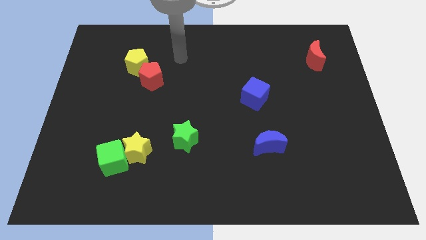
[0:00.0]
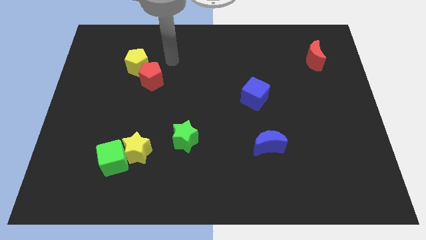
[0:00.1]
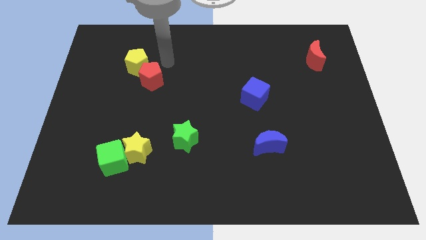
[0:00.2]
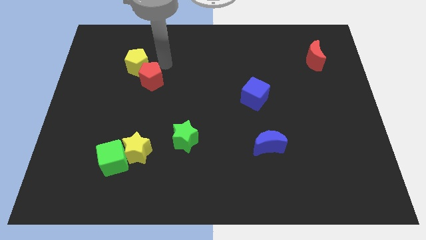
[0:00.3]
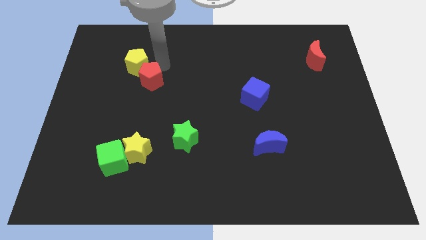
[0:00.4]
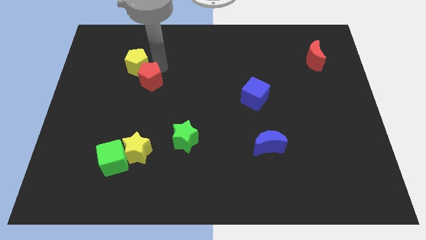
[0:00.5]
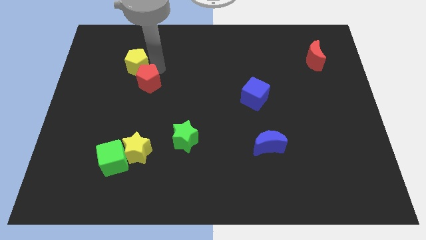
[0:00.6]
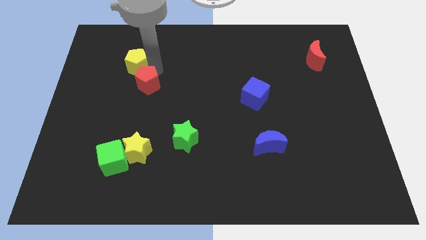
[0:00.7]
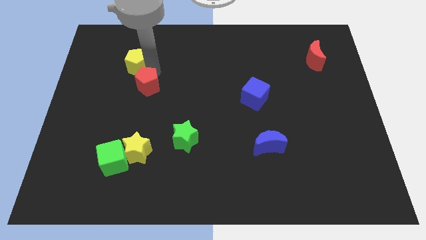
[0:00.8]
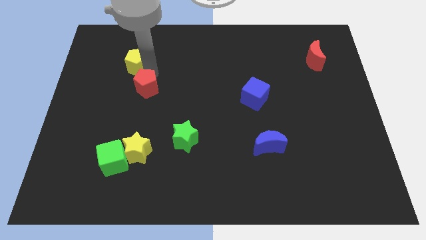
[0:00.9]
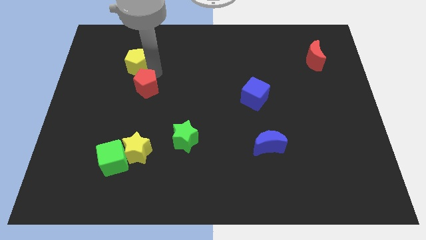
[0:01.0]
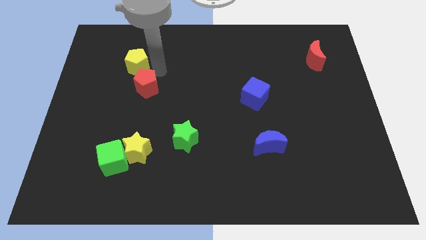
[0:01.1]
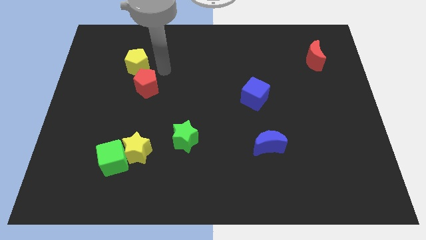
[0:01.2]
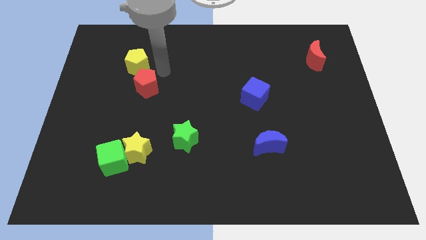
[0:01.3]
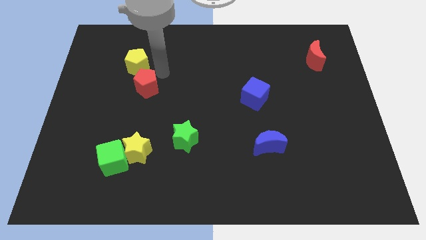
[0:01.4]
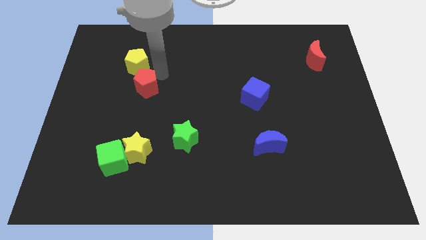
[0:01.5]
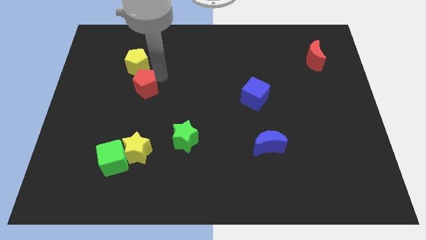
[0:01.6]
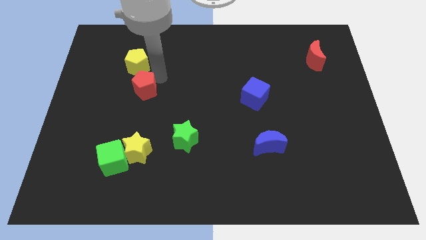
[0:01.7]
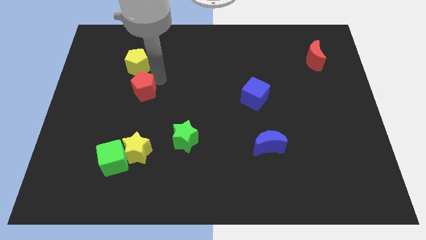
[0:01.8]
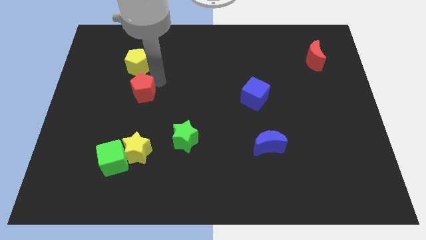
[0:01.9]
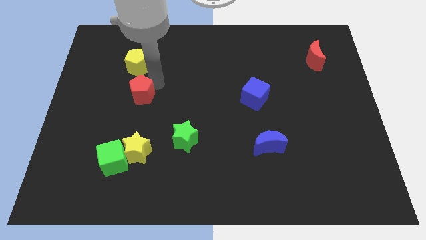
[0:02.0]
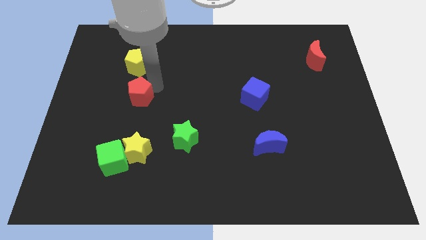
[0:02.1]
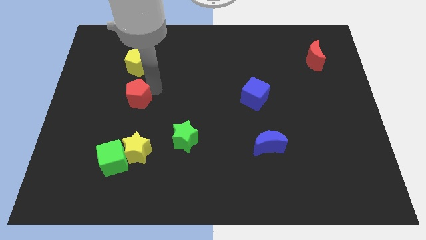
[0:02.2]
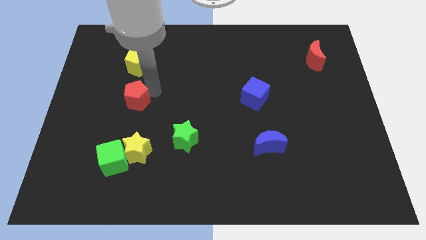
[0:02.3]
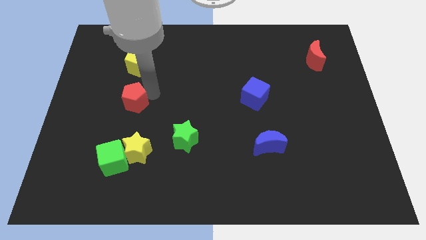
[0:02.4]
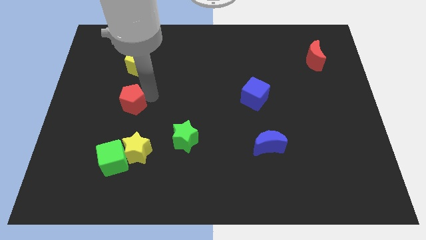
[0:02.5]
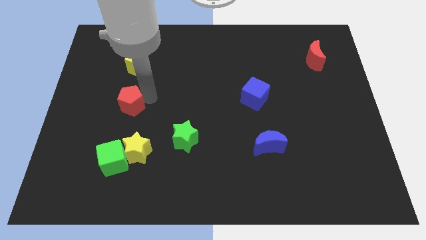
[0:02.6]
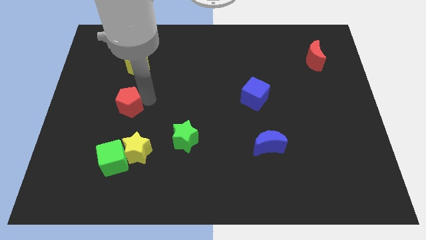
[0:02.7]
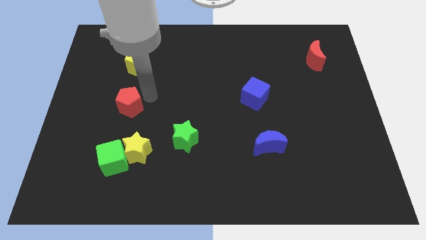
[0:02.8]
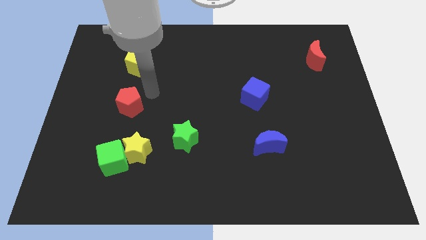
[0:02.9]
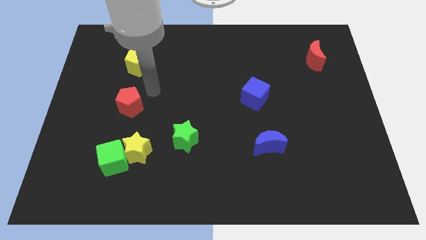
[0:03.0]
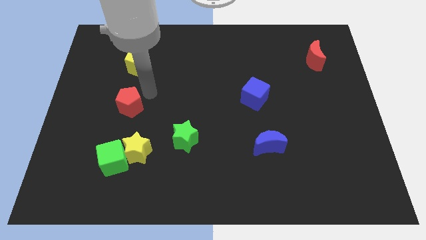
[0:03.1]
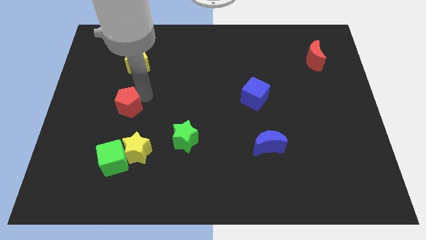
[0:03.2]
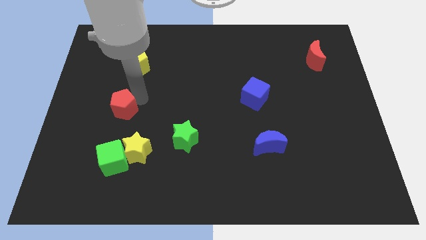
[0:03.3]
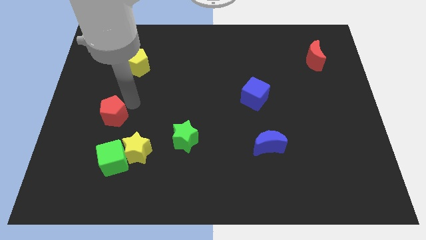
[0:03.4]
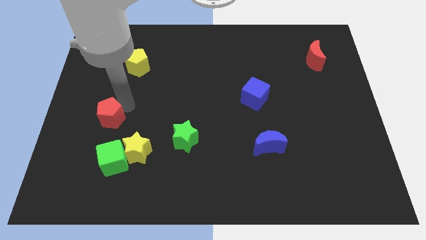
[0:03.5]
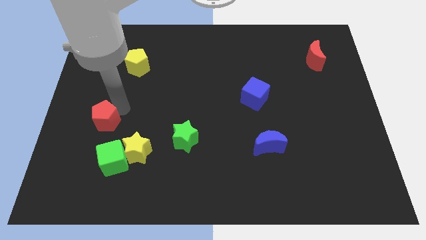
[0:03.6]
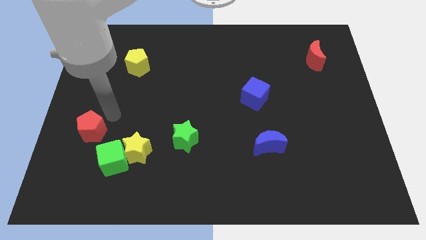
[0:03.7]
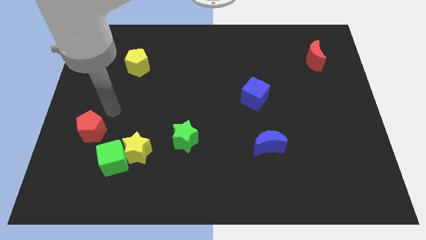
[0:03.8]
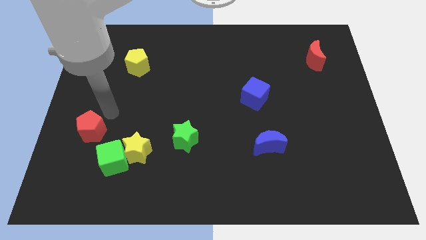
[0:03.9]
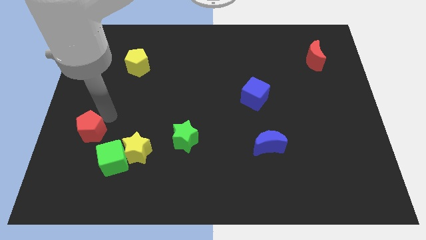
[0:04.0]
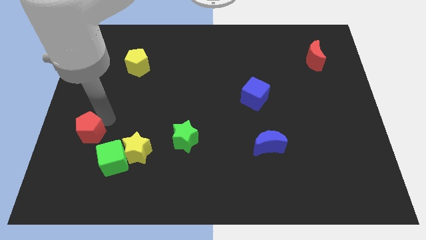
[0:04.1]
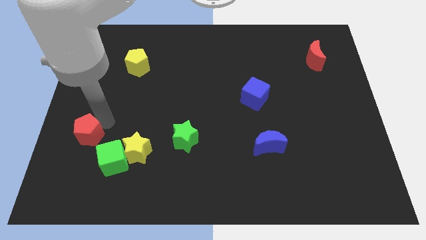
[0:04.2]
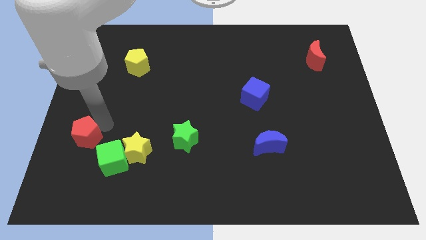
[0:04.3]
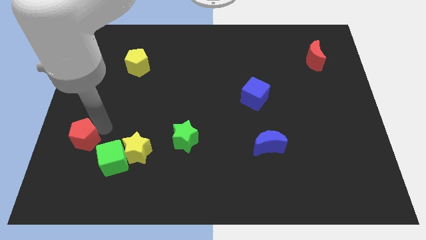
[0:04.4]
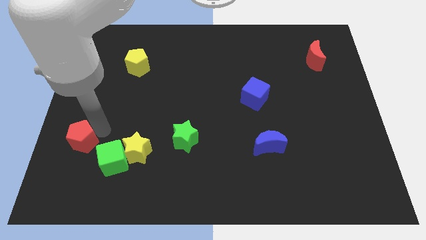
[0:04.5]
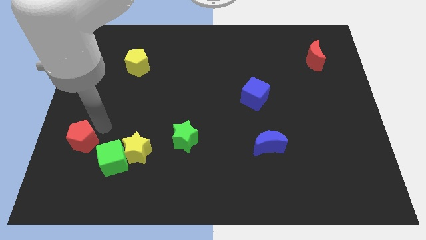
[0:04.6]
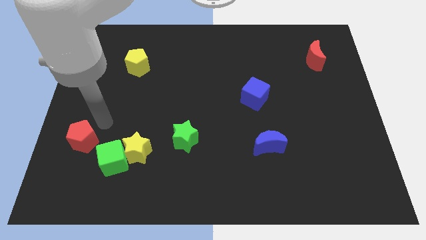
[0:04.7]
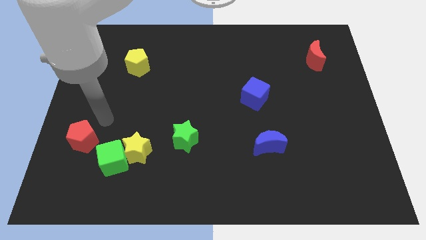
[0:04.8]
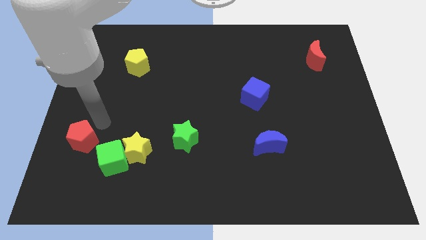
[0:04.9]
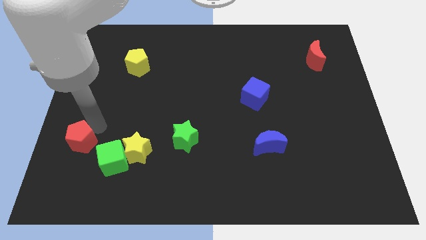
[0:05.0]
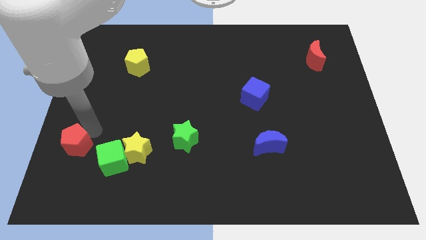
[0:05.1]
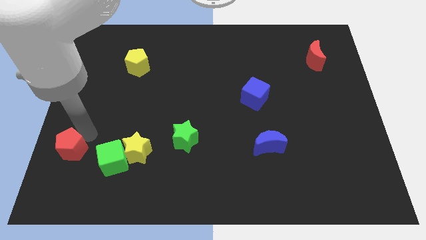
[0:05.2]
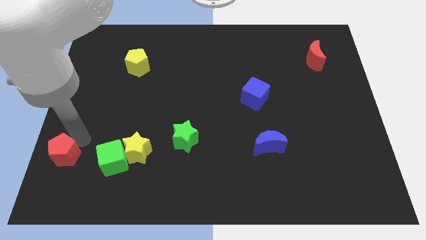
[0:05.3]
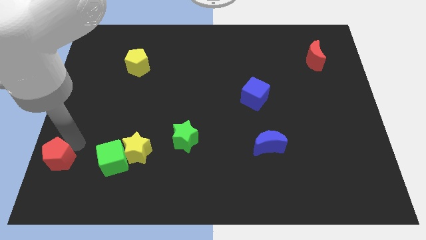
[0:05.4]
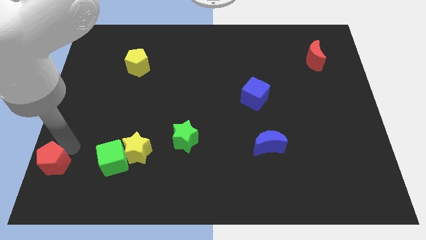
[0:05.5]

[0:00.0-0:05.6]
push the red pentagon to the bottom left corner

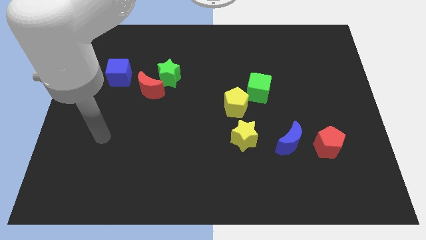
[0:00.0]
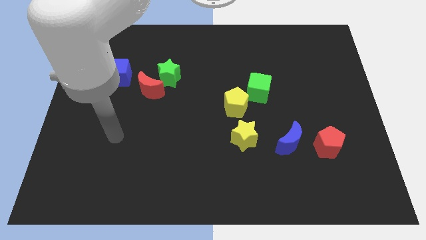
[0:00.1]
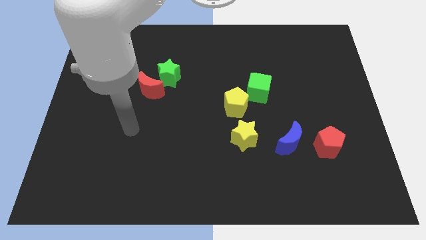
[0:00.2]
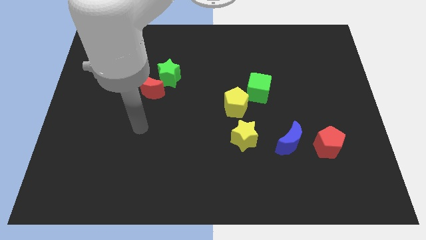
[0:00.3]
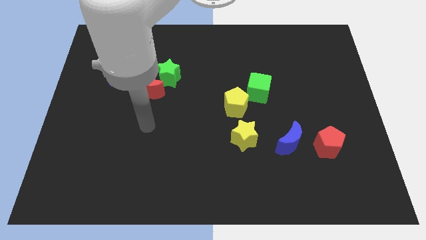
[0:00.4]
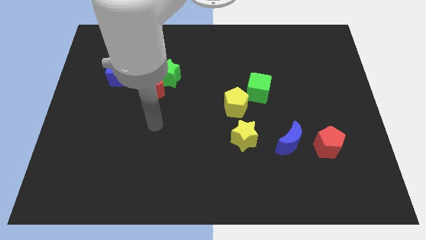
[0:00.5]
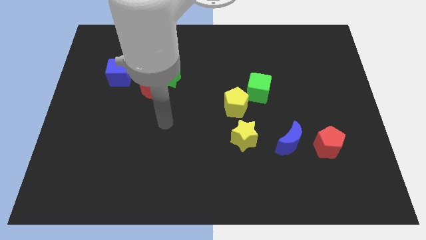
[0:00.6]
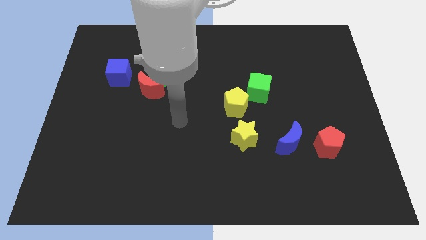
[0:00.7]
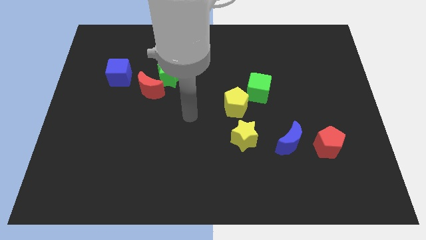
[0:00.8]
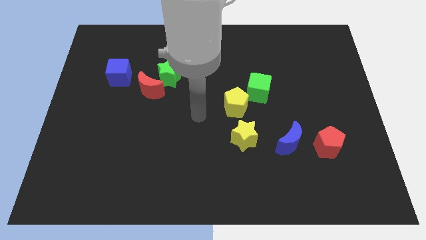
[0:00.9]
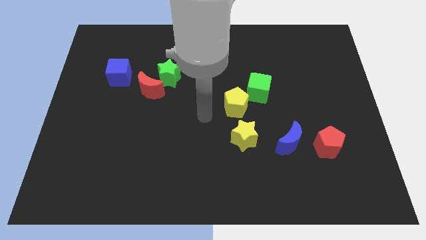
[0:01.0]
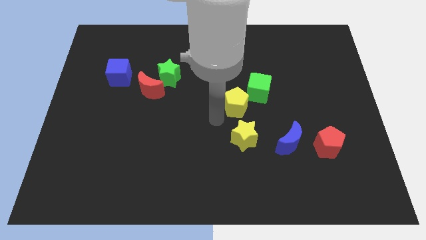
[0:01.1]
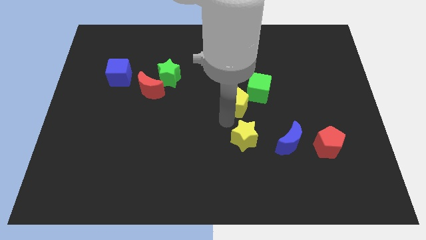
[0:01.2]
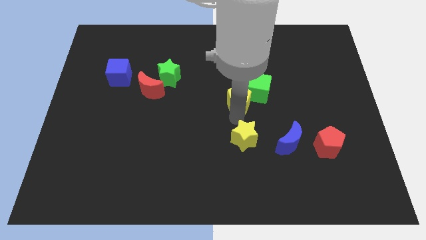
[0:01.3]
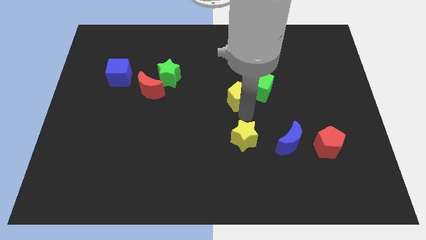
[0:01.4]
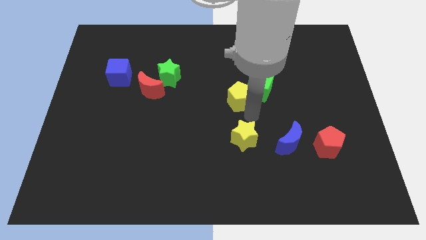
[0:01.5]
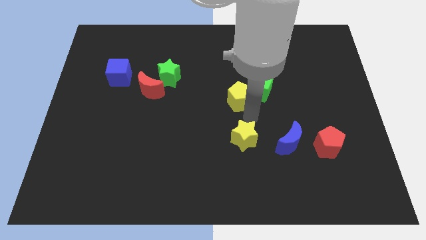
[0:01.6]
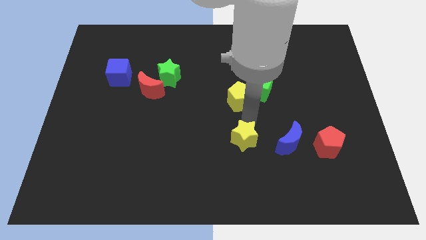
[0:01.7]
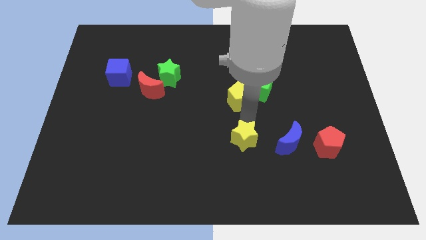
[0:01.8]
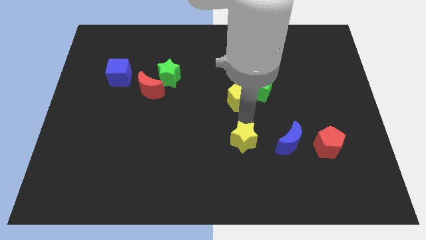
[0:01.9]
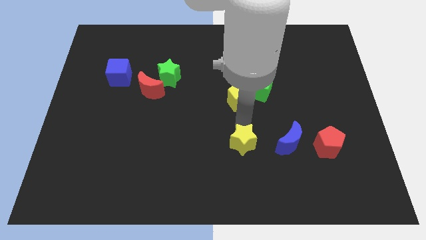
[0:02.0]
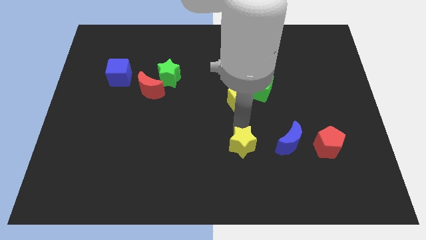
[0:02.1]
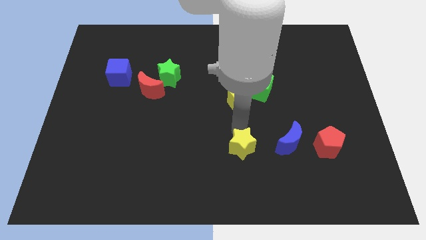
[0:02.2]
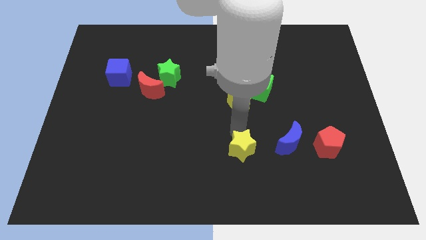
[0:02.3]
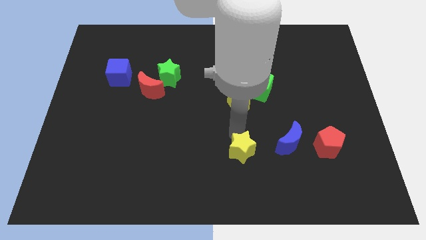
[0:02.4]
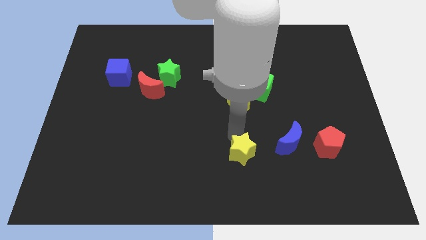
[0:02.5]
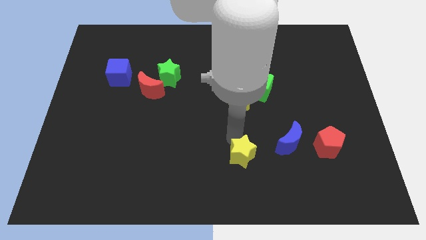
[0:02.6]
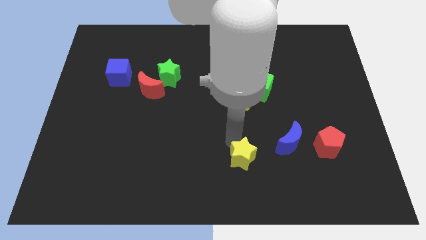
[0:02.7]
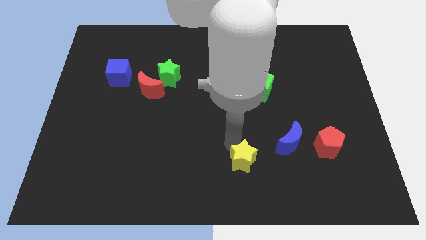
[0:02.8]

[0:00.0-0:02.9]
put the yellow star to the bottom side
